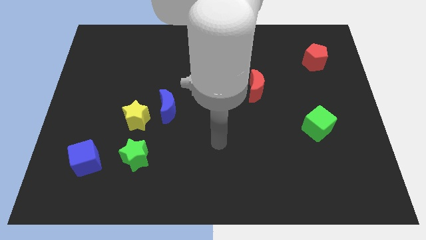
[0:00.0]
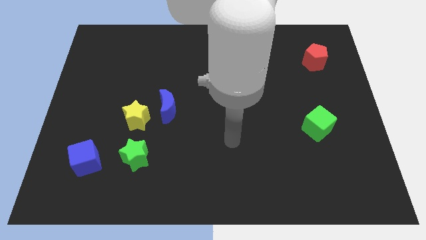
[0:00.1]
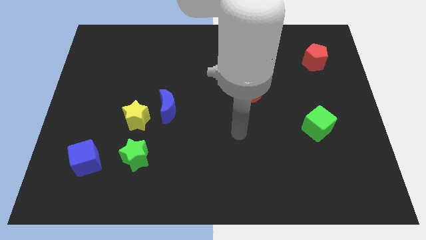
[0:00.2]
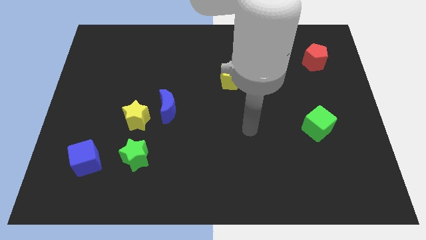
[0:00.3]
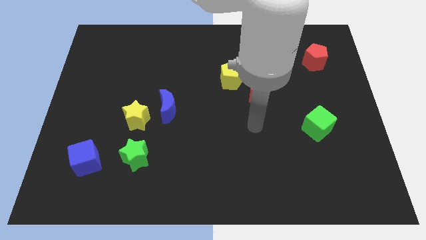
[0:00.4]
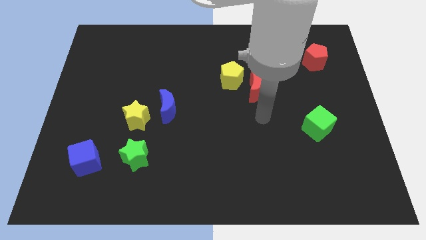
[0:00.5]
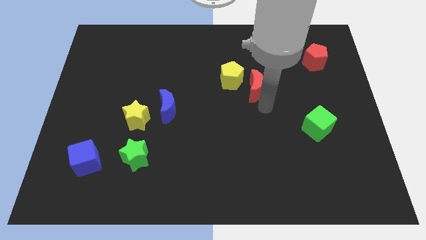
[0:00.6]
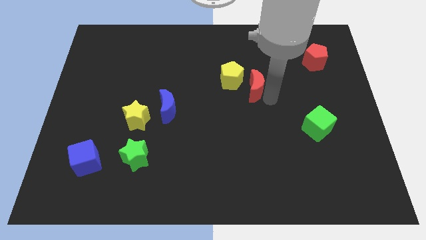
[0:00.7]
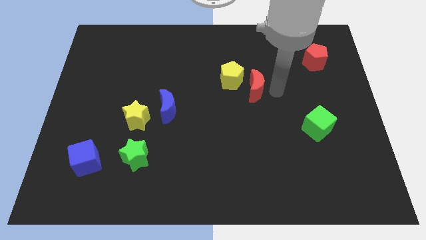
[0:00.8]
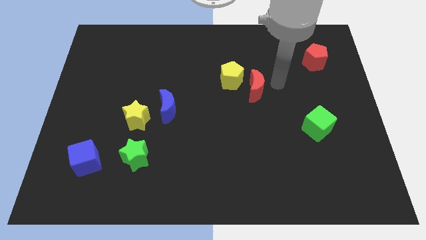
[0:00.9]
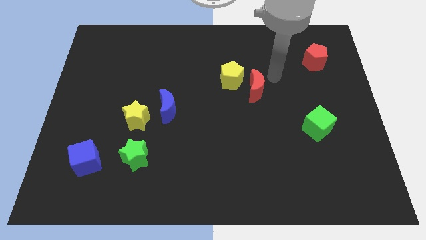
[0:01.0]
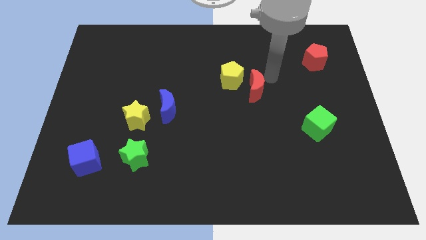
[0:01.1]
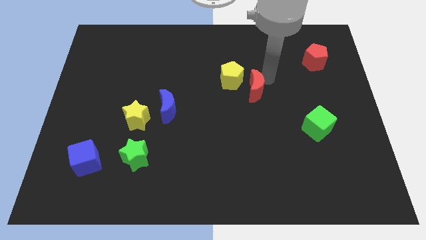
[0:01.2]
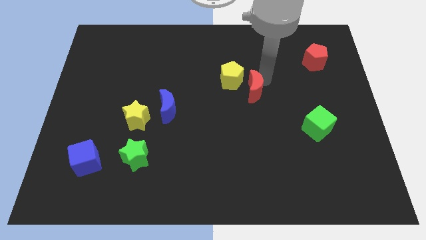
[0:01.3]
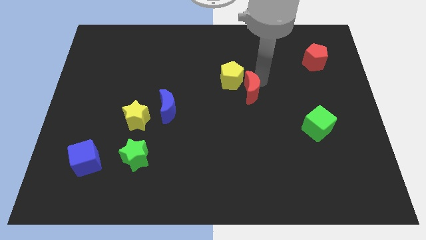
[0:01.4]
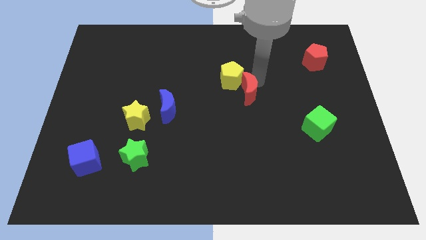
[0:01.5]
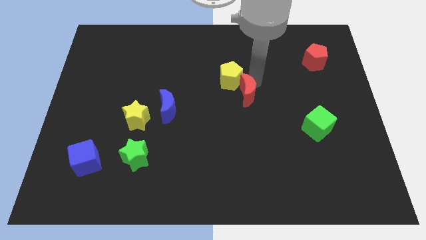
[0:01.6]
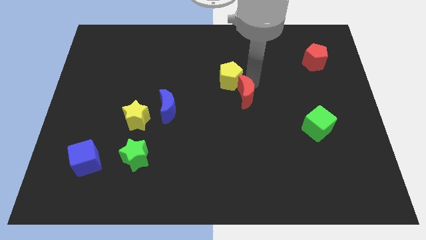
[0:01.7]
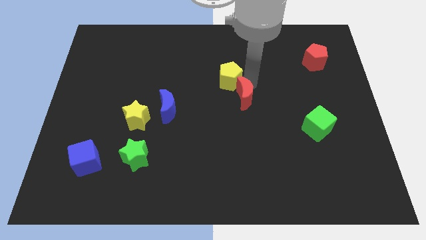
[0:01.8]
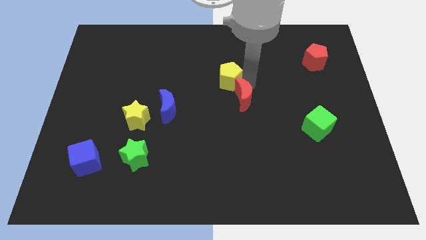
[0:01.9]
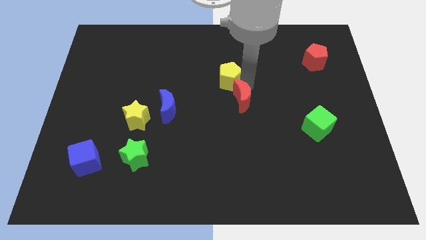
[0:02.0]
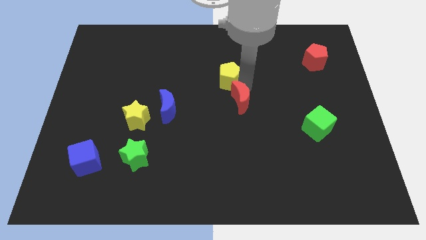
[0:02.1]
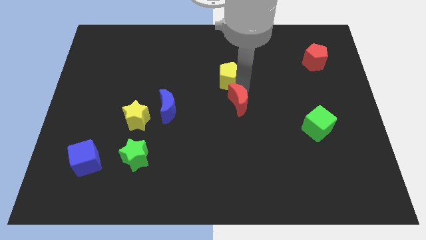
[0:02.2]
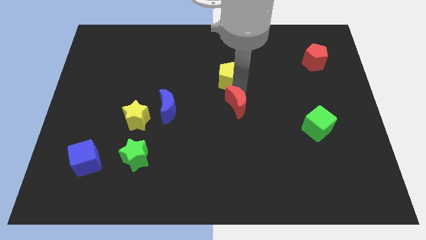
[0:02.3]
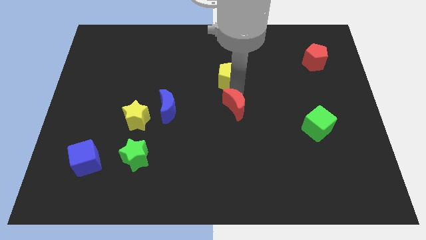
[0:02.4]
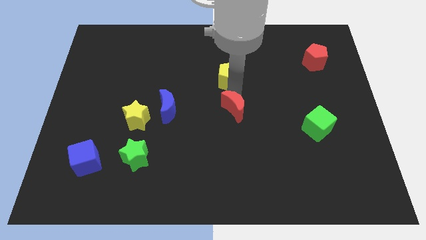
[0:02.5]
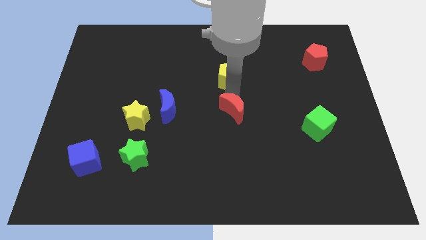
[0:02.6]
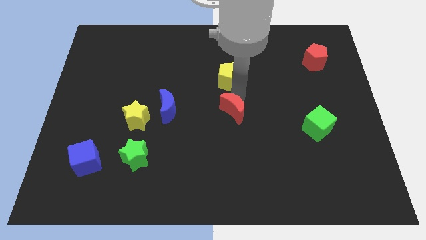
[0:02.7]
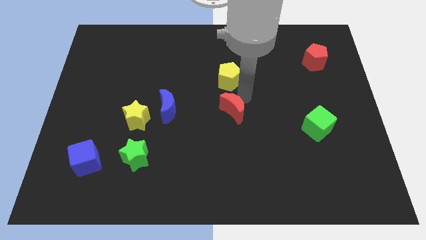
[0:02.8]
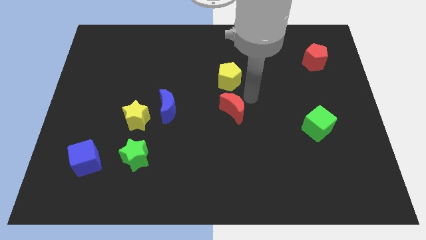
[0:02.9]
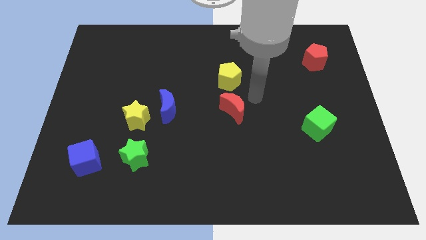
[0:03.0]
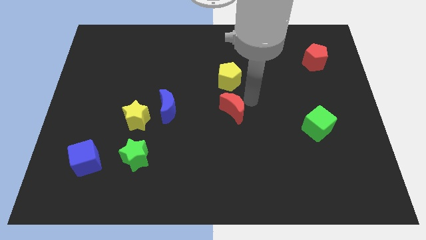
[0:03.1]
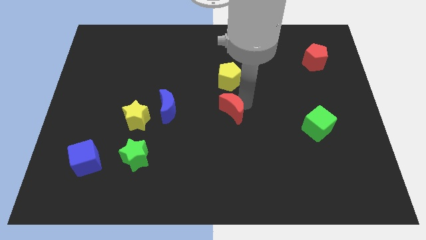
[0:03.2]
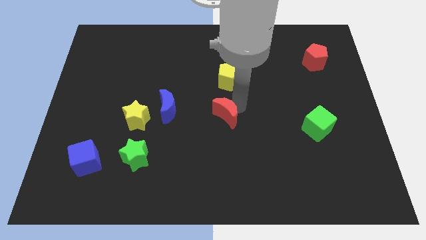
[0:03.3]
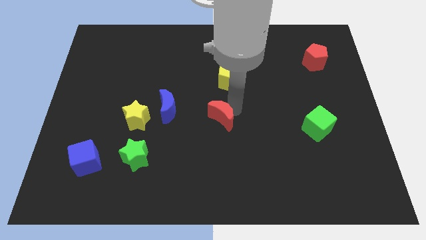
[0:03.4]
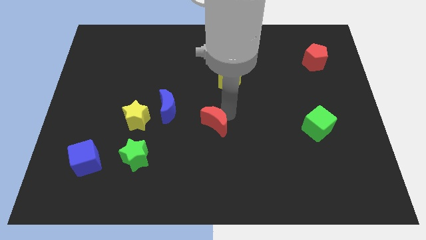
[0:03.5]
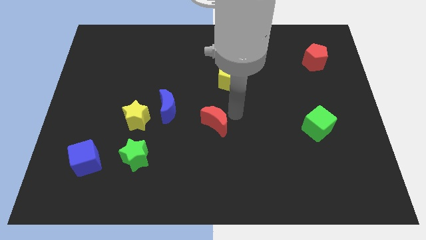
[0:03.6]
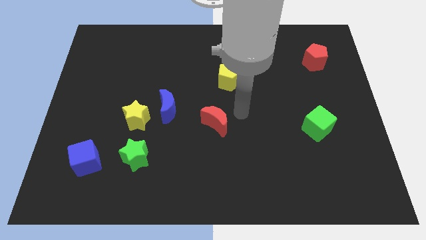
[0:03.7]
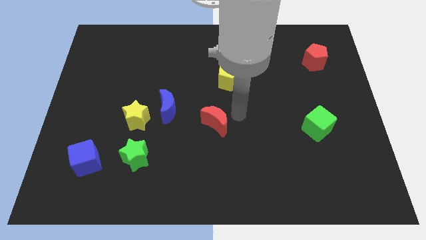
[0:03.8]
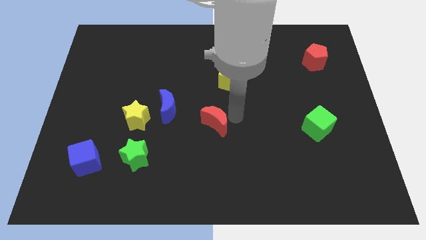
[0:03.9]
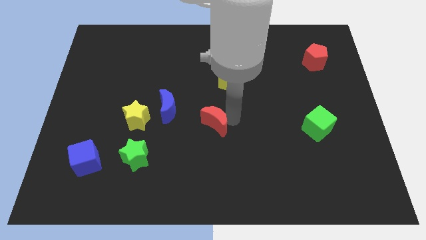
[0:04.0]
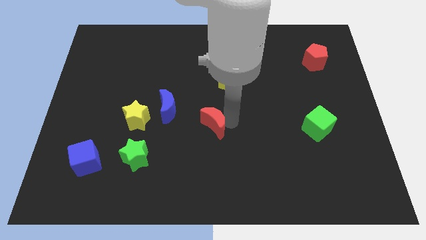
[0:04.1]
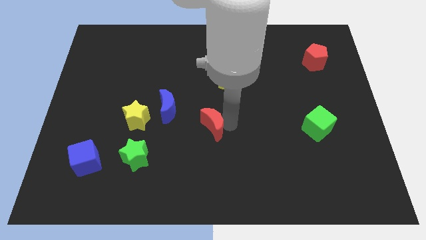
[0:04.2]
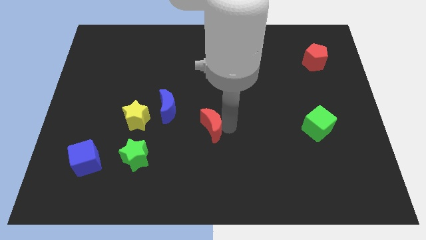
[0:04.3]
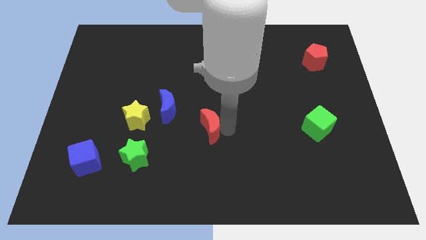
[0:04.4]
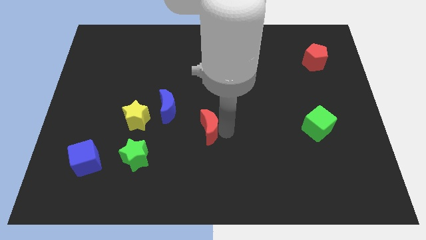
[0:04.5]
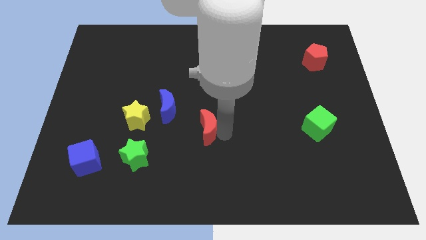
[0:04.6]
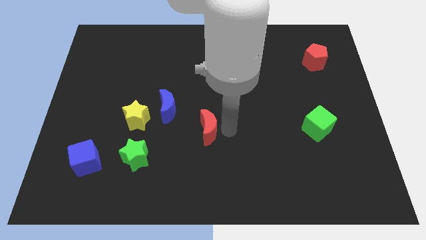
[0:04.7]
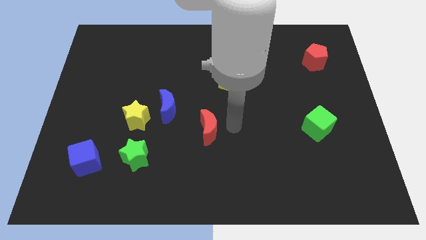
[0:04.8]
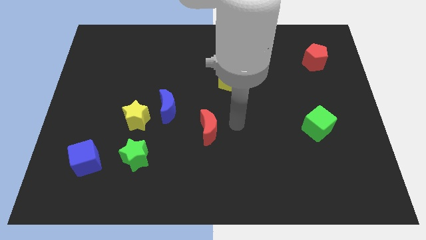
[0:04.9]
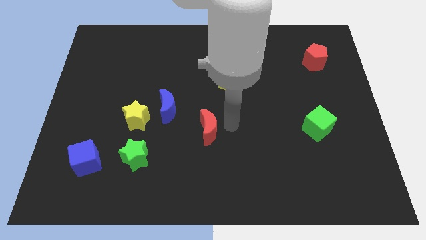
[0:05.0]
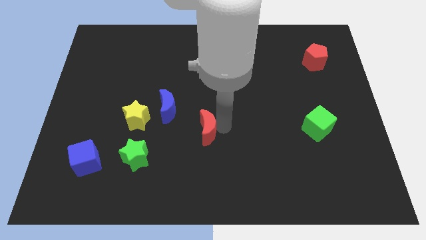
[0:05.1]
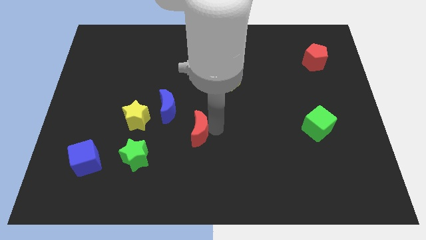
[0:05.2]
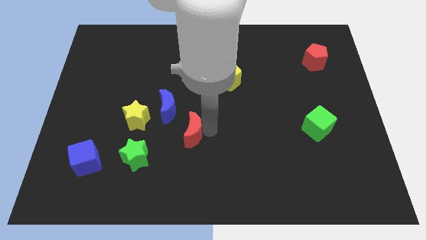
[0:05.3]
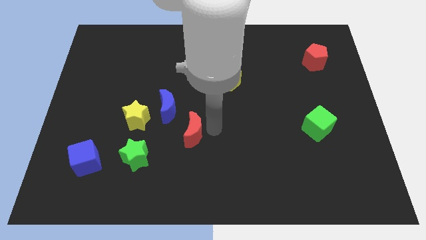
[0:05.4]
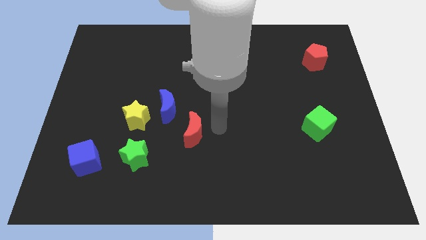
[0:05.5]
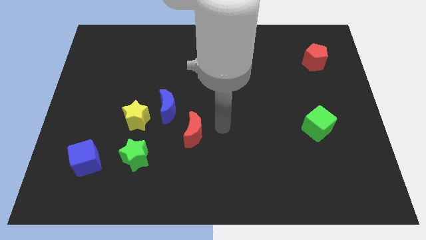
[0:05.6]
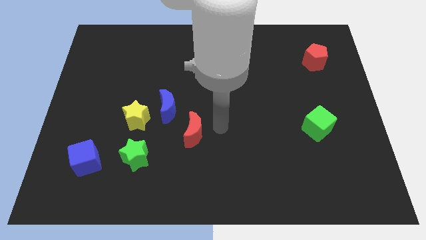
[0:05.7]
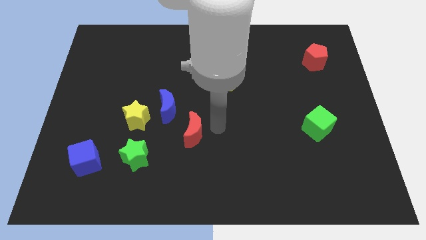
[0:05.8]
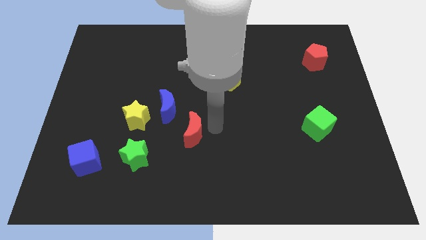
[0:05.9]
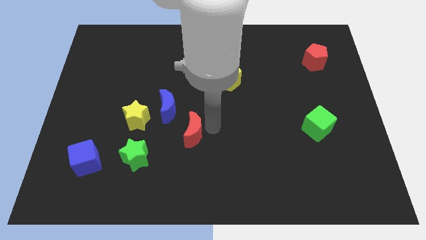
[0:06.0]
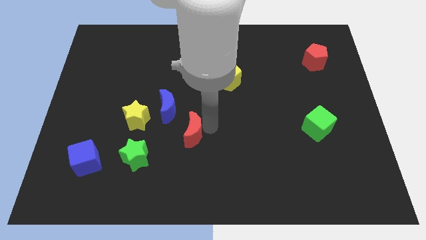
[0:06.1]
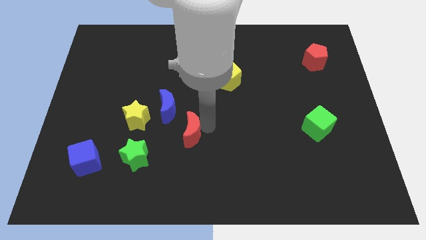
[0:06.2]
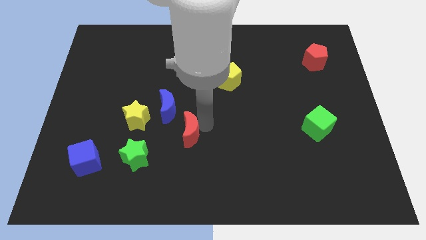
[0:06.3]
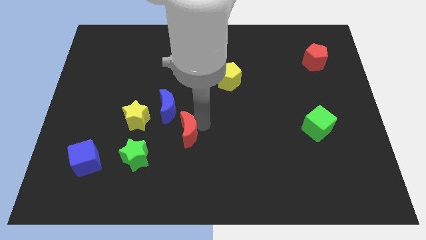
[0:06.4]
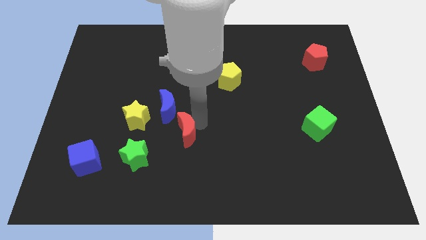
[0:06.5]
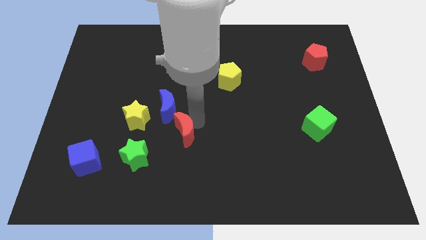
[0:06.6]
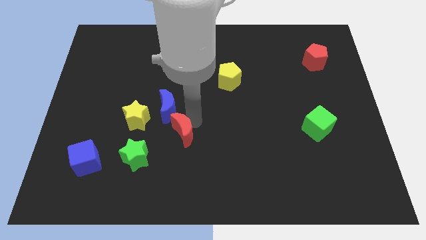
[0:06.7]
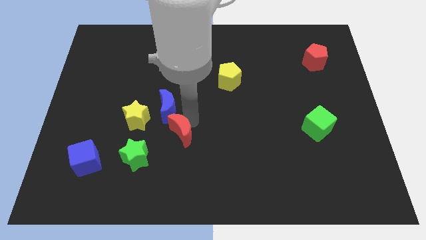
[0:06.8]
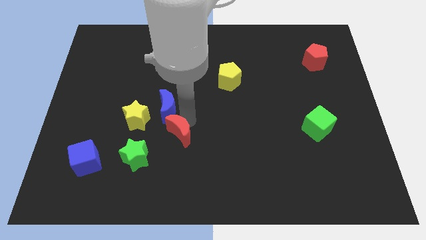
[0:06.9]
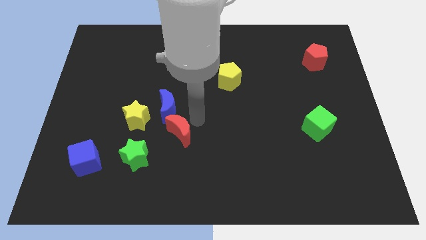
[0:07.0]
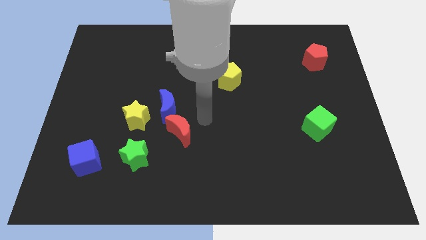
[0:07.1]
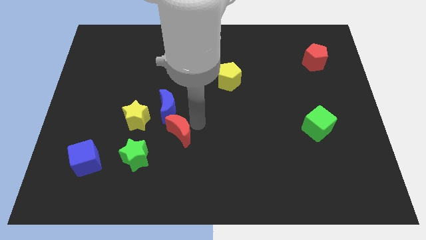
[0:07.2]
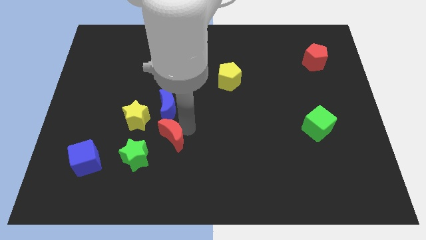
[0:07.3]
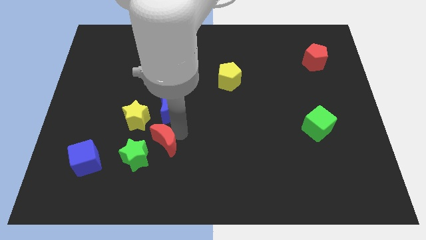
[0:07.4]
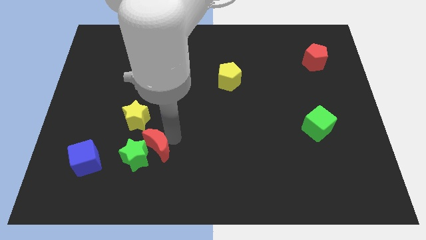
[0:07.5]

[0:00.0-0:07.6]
move the red moon next to the green star

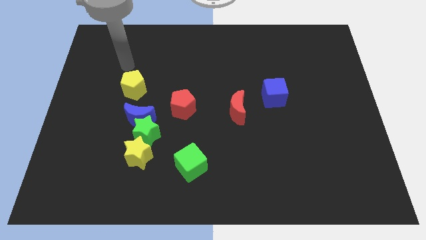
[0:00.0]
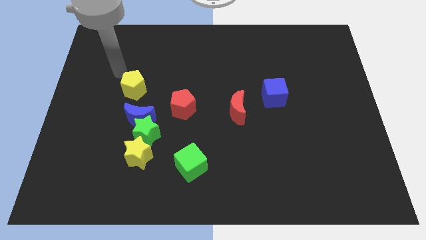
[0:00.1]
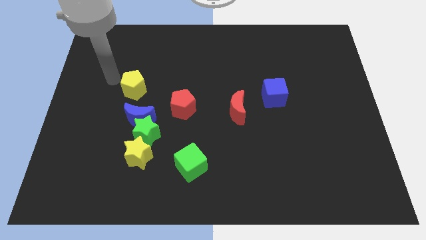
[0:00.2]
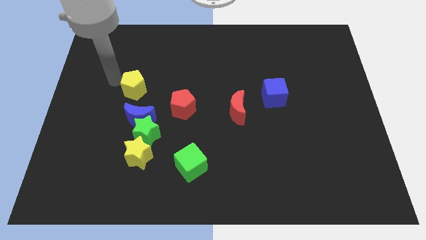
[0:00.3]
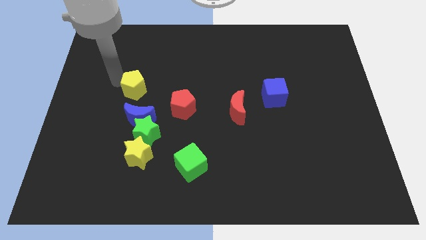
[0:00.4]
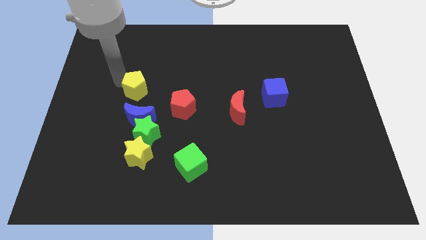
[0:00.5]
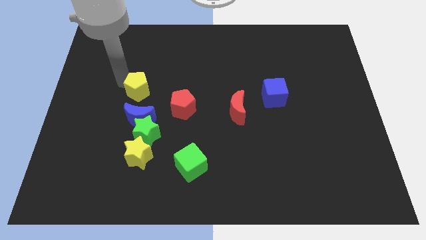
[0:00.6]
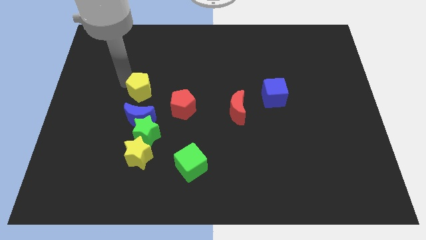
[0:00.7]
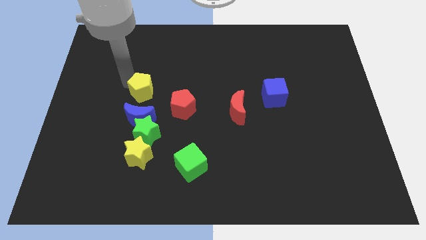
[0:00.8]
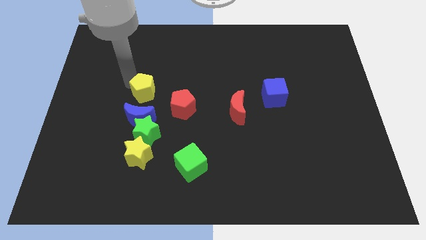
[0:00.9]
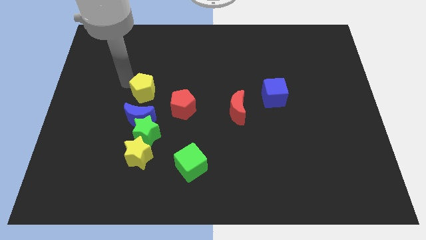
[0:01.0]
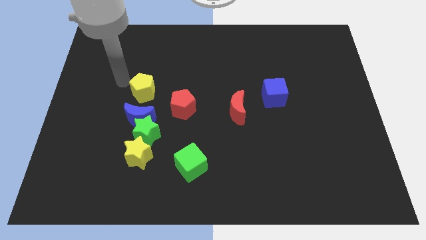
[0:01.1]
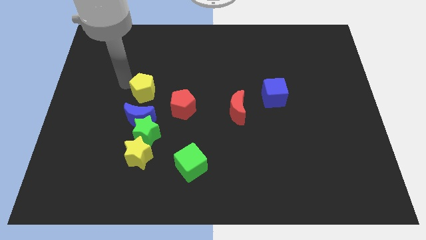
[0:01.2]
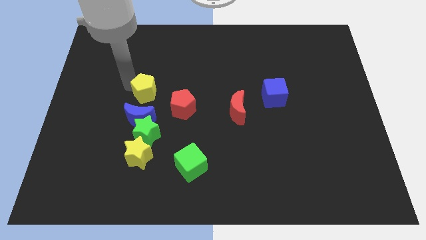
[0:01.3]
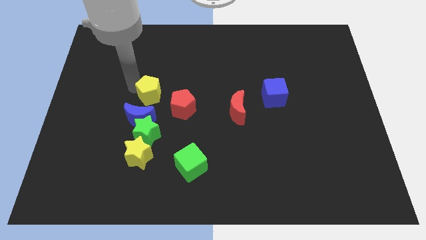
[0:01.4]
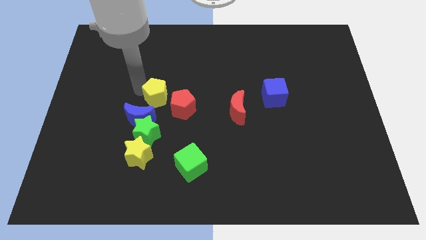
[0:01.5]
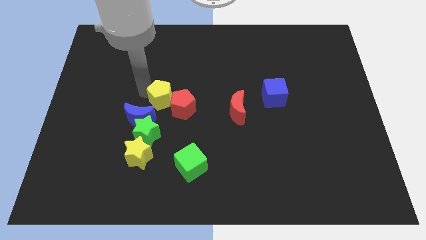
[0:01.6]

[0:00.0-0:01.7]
push the yellow pentagon to the red pentagon
